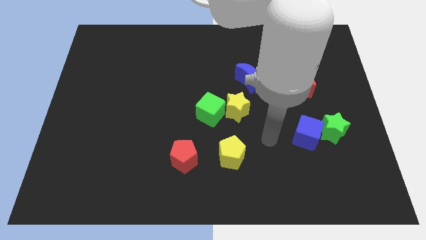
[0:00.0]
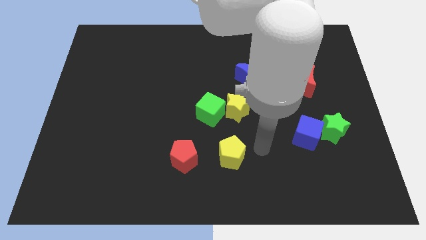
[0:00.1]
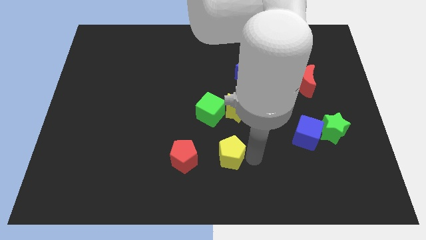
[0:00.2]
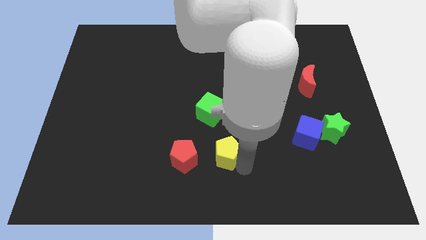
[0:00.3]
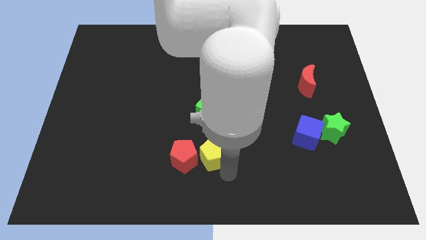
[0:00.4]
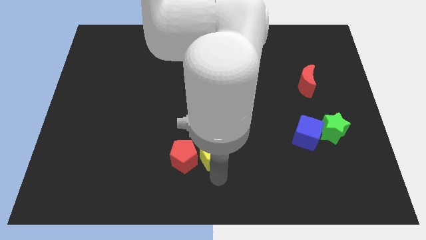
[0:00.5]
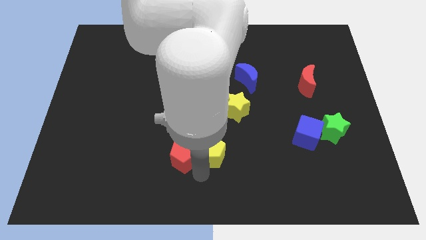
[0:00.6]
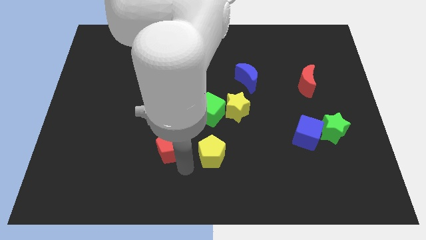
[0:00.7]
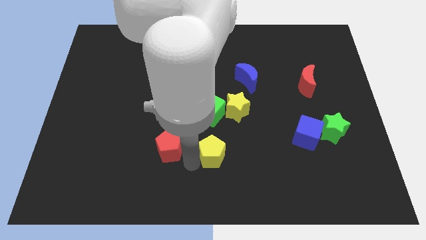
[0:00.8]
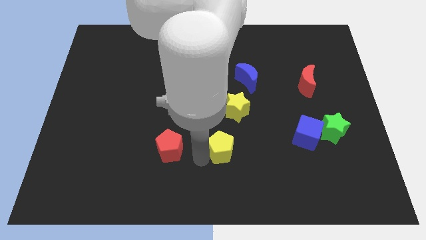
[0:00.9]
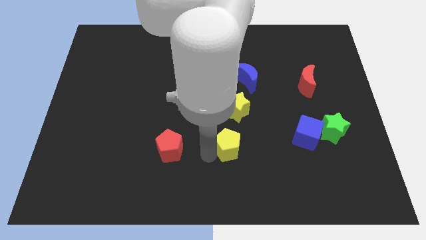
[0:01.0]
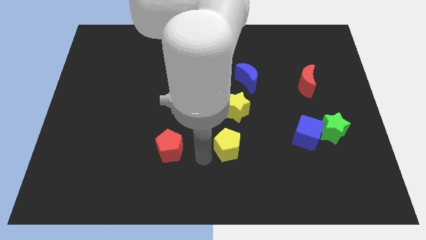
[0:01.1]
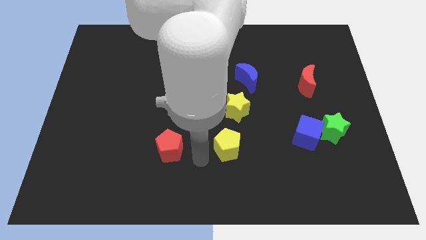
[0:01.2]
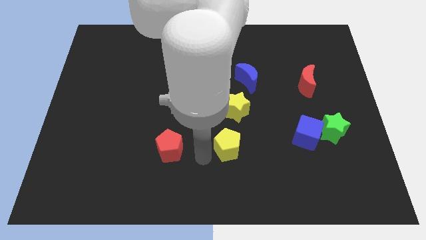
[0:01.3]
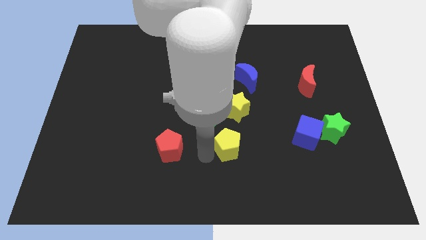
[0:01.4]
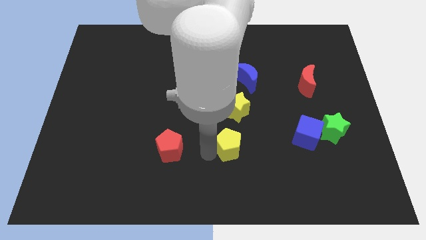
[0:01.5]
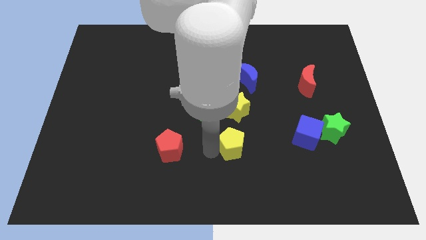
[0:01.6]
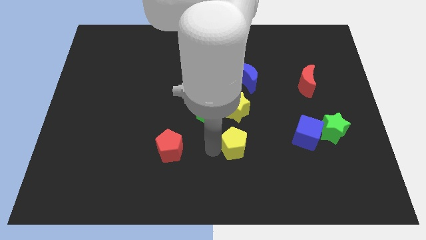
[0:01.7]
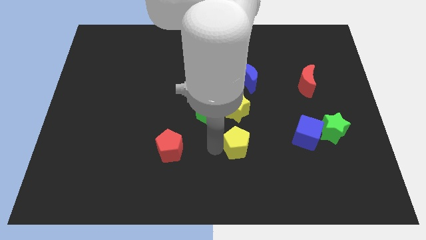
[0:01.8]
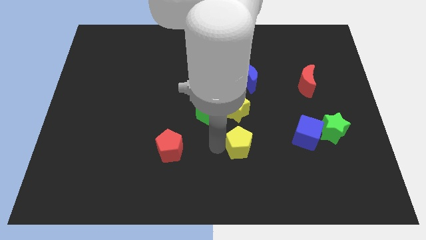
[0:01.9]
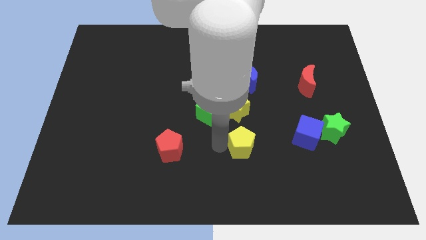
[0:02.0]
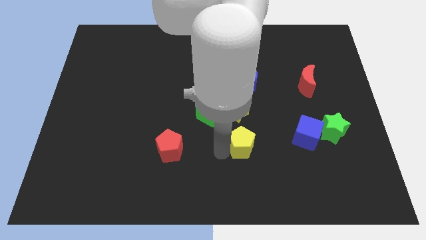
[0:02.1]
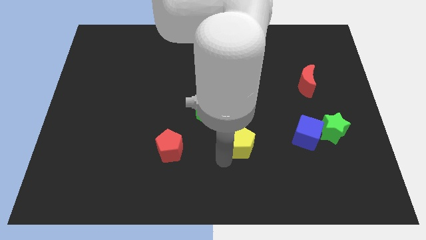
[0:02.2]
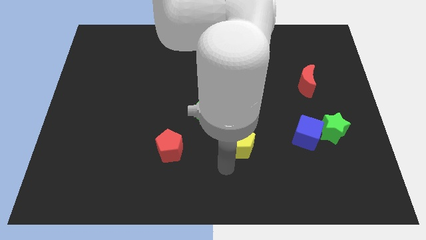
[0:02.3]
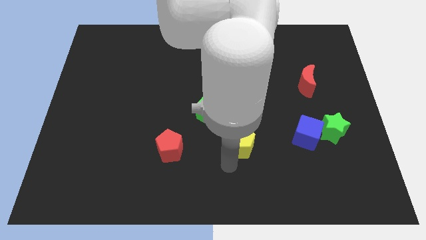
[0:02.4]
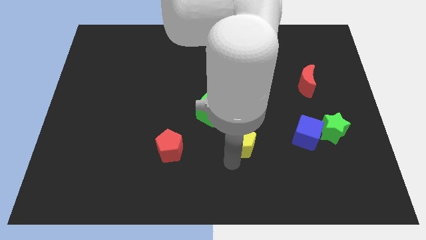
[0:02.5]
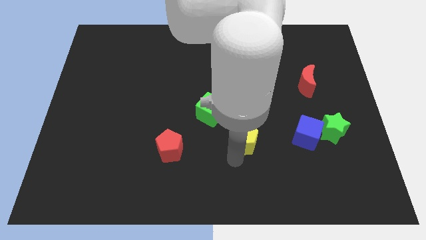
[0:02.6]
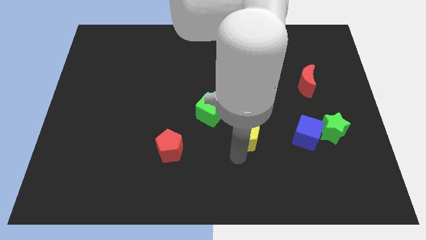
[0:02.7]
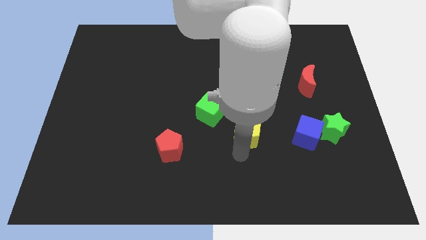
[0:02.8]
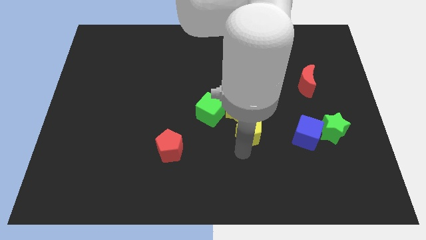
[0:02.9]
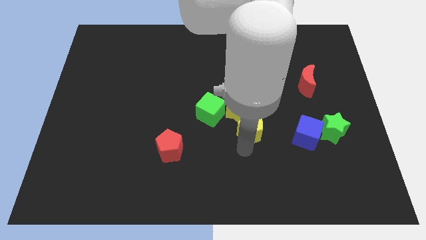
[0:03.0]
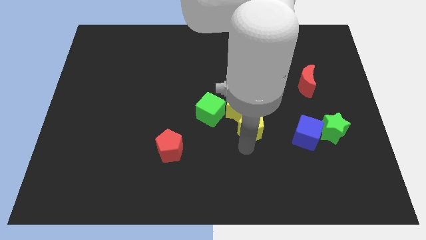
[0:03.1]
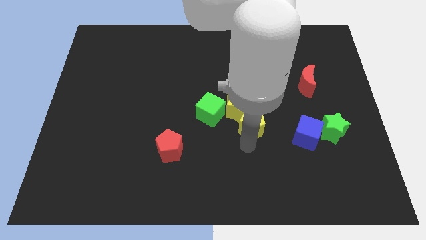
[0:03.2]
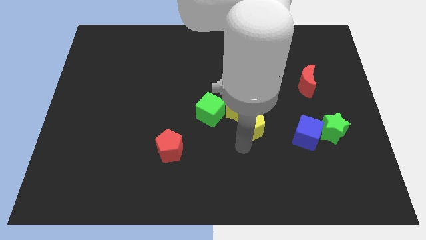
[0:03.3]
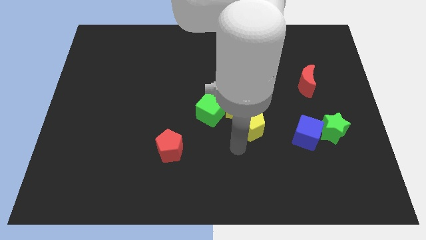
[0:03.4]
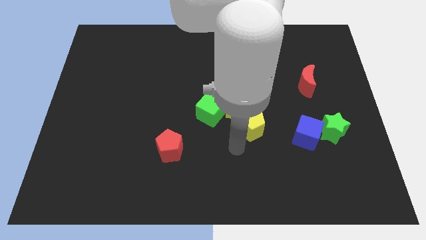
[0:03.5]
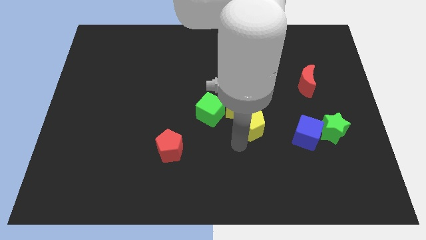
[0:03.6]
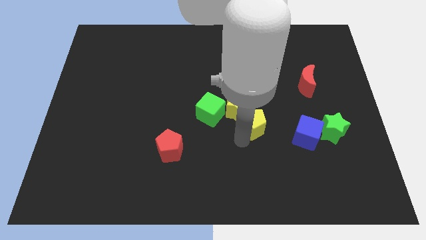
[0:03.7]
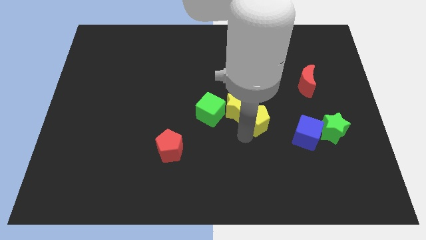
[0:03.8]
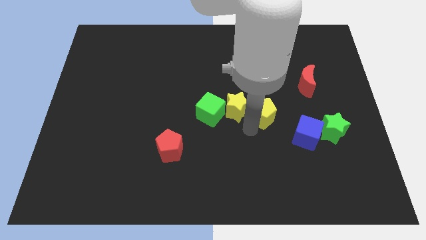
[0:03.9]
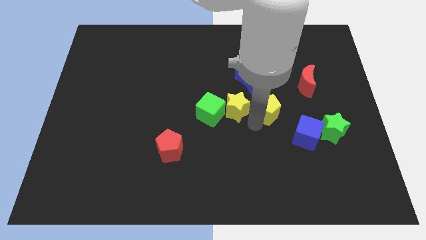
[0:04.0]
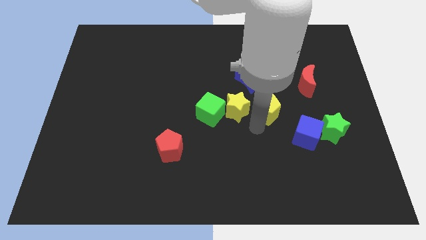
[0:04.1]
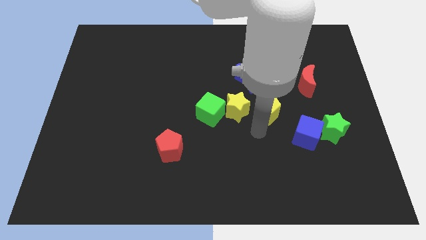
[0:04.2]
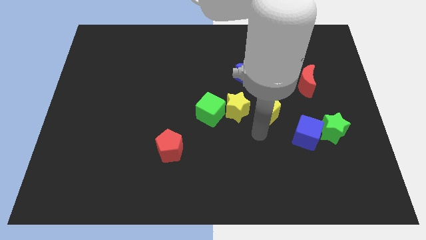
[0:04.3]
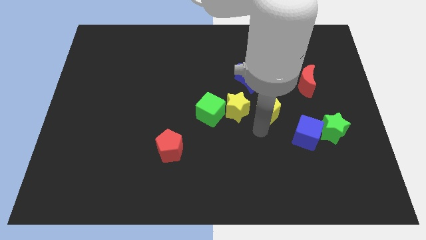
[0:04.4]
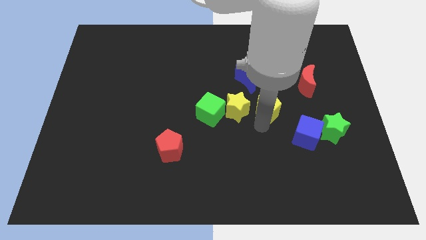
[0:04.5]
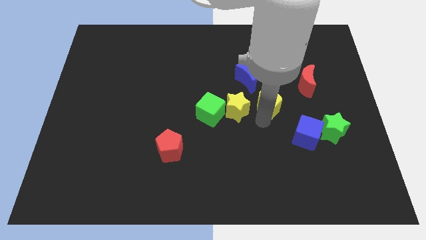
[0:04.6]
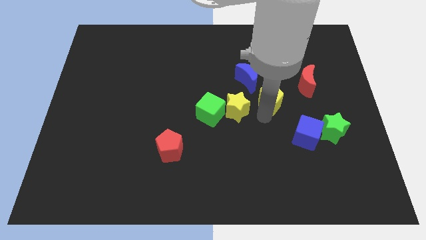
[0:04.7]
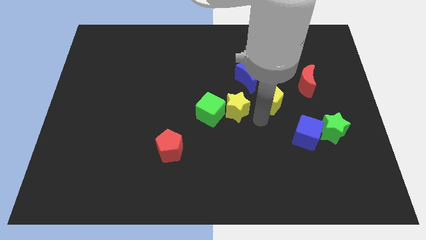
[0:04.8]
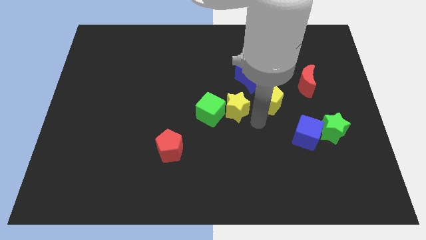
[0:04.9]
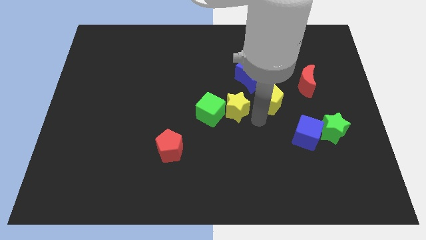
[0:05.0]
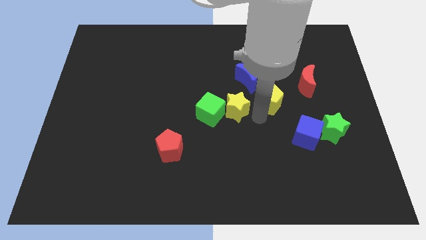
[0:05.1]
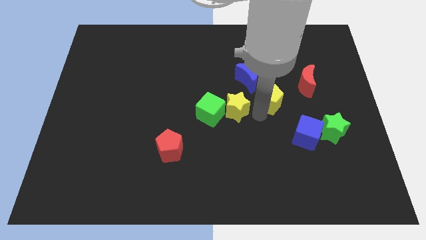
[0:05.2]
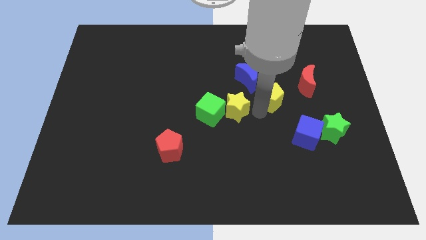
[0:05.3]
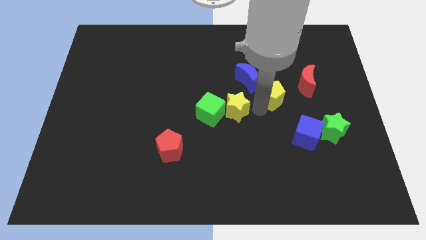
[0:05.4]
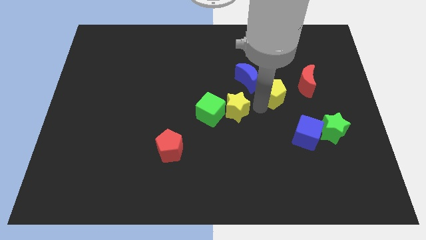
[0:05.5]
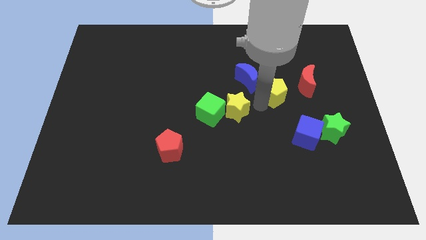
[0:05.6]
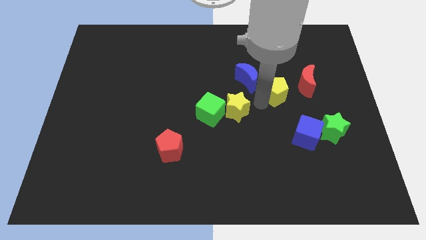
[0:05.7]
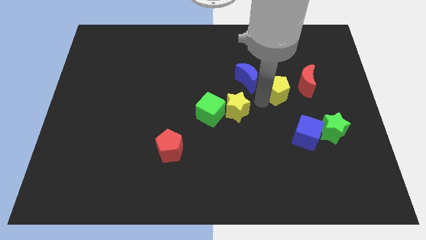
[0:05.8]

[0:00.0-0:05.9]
push the yellow pentagon up and right

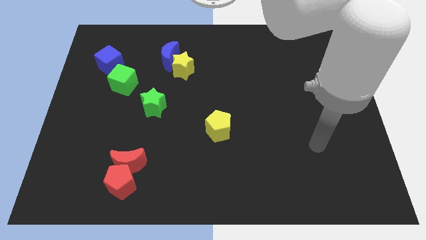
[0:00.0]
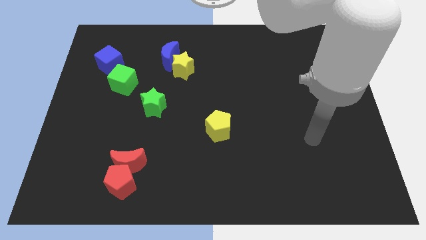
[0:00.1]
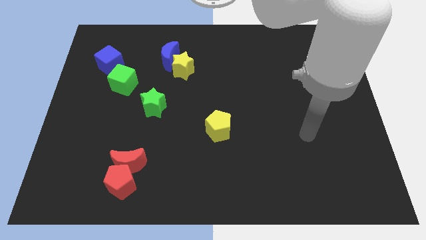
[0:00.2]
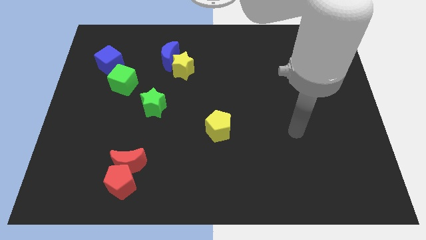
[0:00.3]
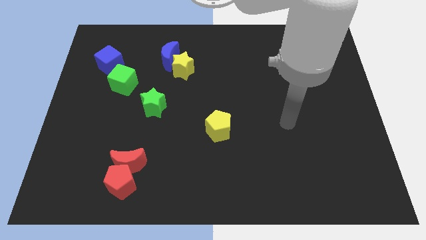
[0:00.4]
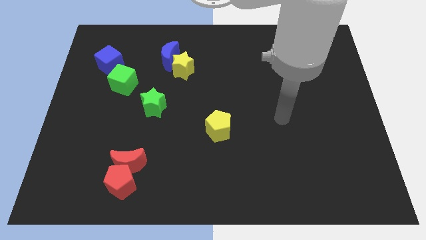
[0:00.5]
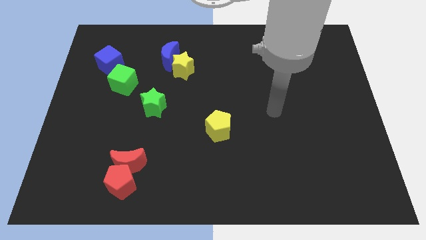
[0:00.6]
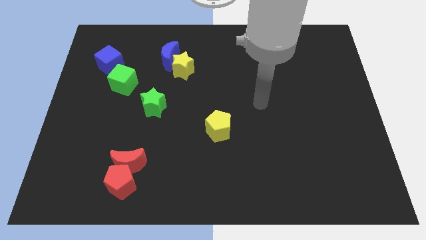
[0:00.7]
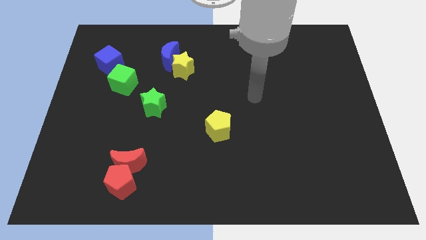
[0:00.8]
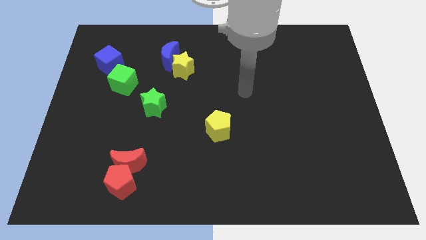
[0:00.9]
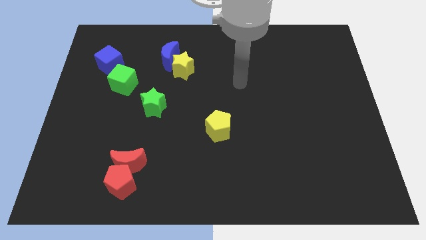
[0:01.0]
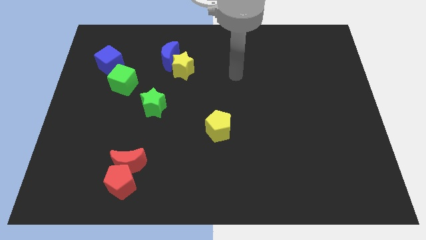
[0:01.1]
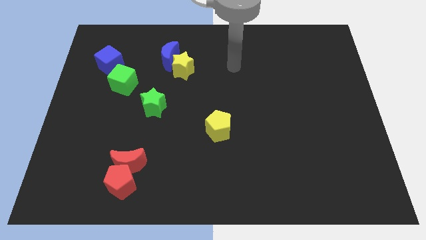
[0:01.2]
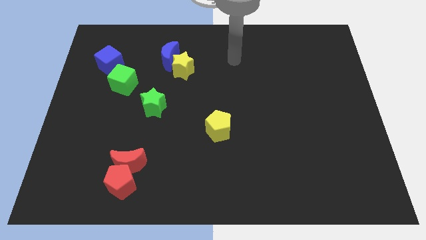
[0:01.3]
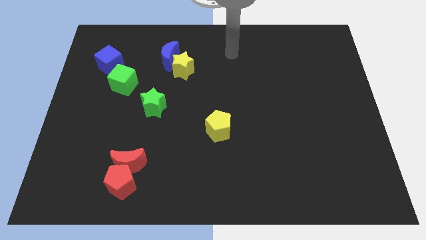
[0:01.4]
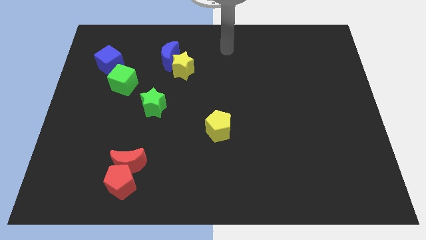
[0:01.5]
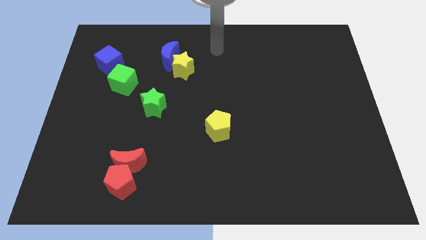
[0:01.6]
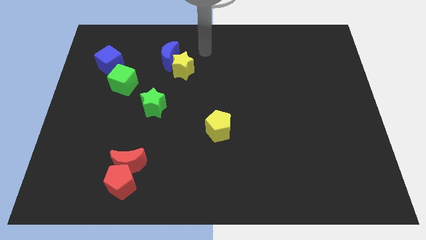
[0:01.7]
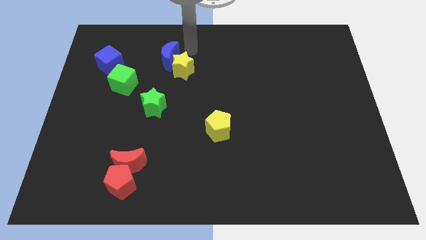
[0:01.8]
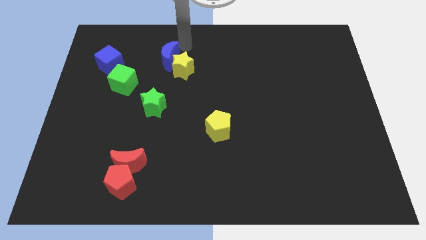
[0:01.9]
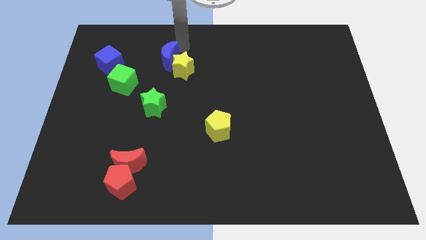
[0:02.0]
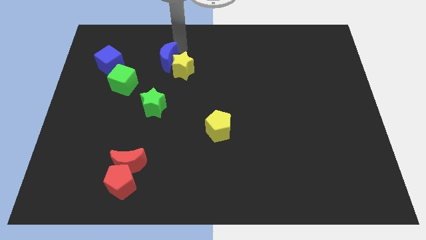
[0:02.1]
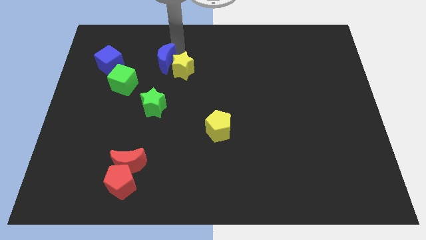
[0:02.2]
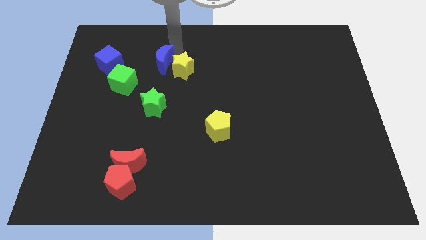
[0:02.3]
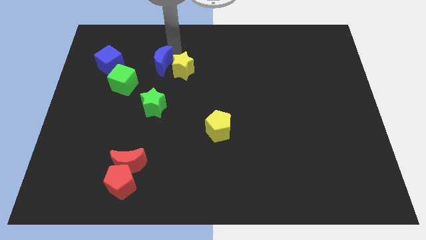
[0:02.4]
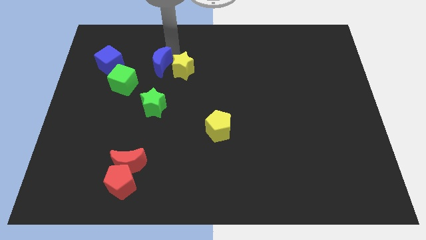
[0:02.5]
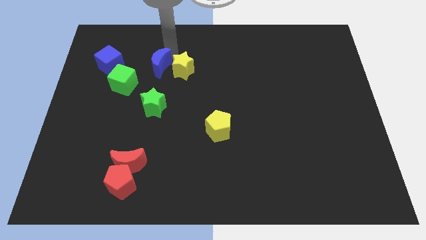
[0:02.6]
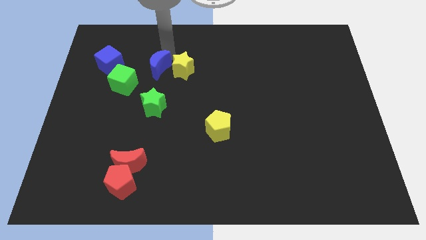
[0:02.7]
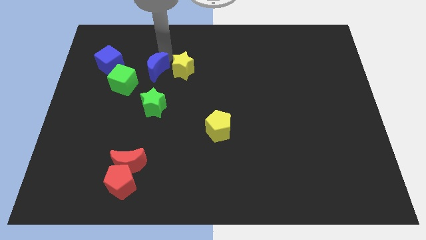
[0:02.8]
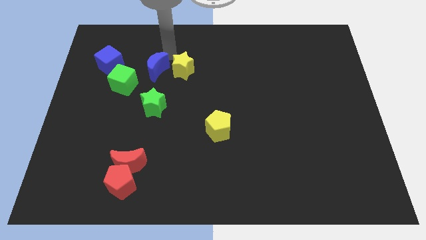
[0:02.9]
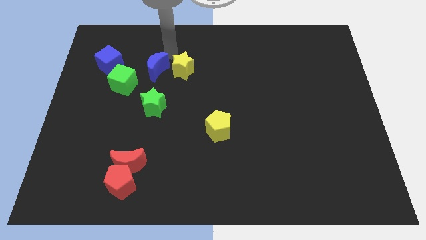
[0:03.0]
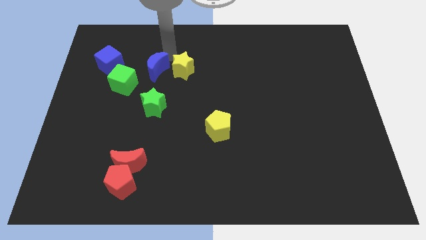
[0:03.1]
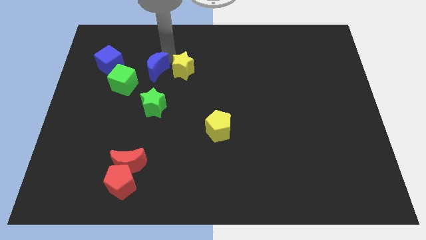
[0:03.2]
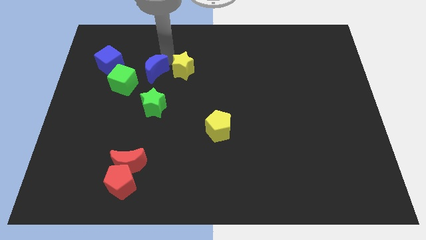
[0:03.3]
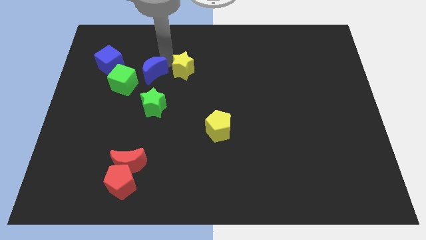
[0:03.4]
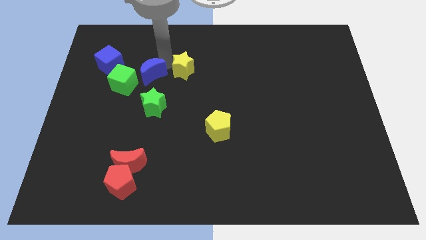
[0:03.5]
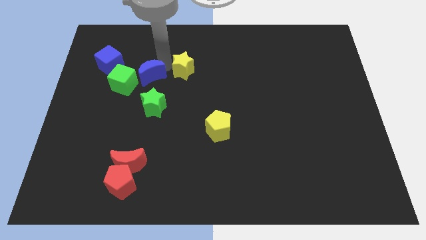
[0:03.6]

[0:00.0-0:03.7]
move the blue moon diagonally downwards and left a little bit
